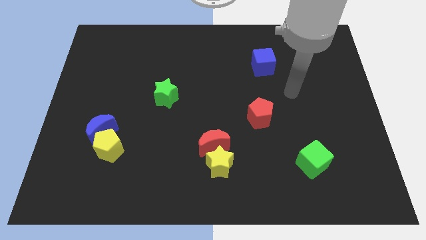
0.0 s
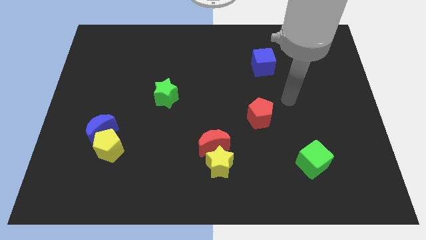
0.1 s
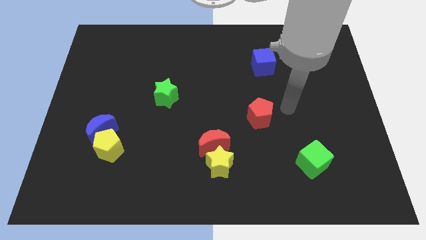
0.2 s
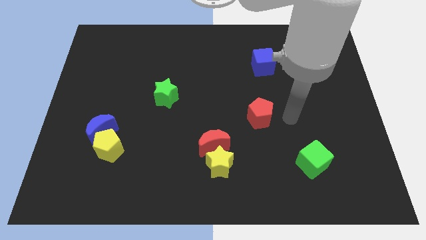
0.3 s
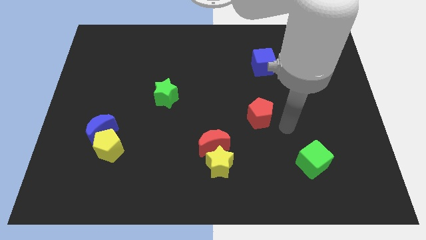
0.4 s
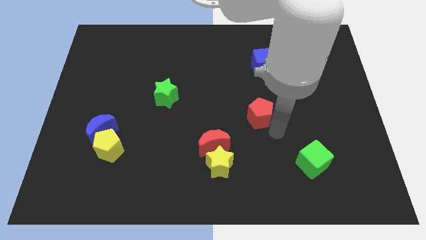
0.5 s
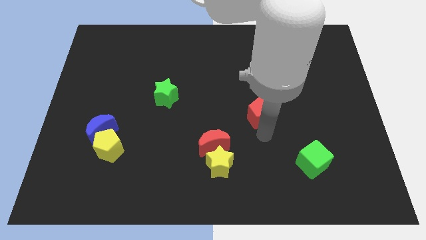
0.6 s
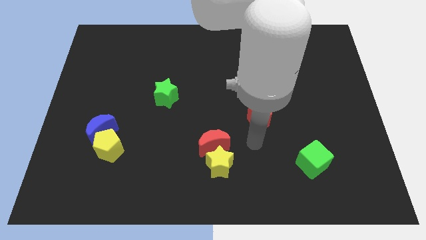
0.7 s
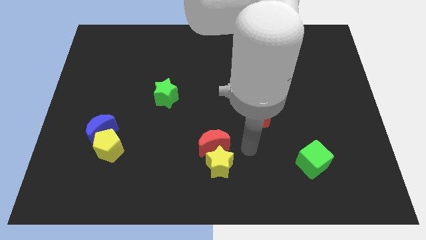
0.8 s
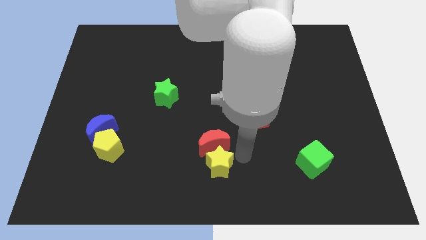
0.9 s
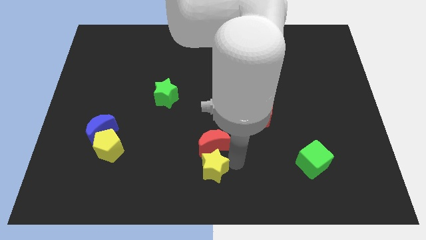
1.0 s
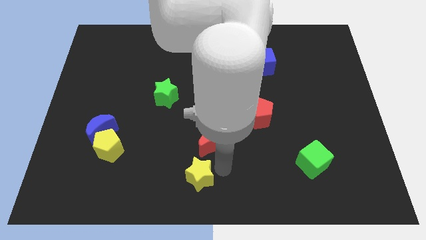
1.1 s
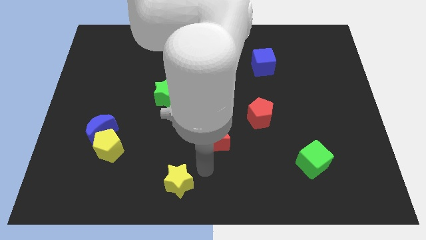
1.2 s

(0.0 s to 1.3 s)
pull the red moon apart from the yellow star

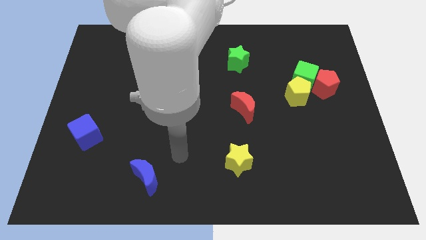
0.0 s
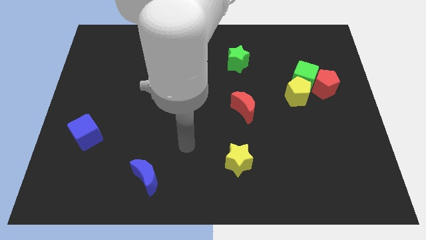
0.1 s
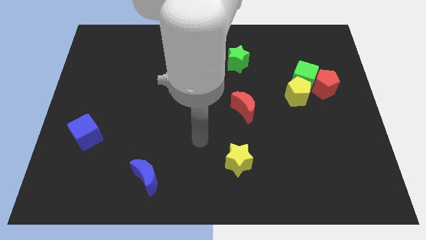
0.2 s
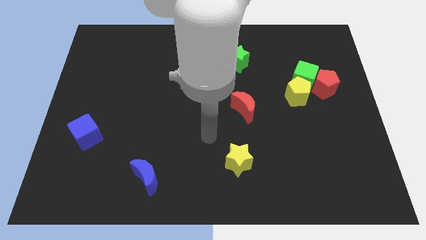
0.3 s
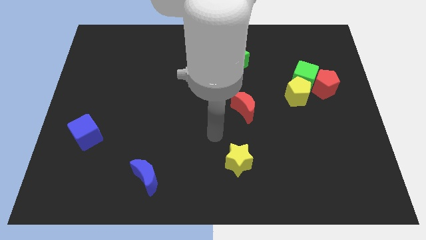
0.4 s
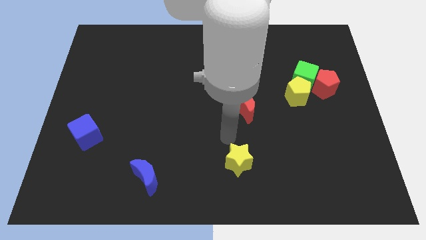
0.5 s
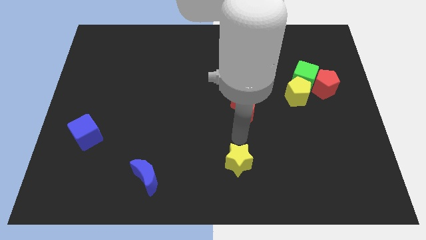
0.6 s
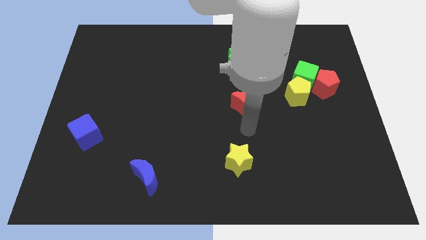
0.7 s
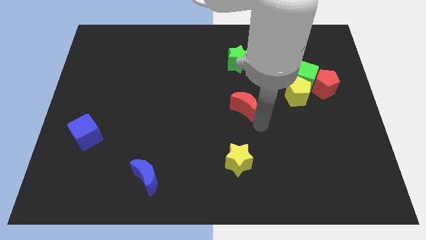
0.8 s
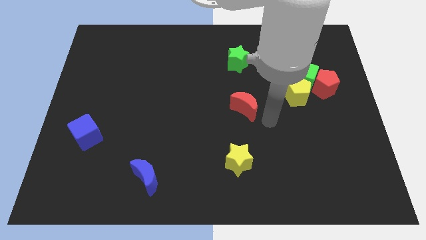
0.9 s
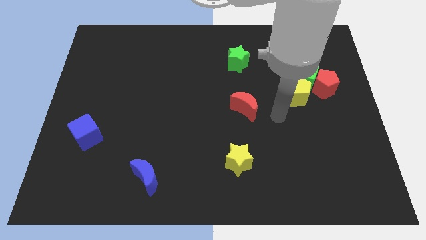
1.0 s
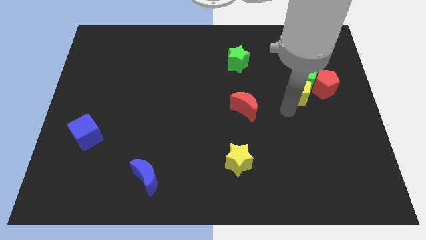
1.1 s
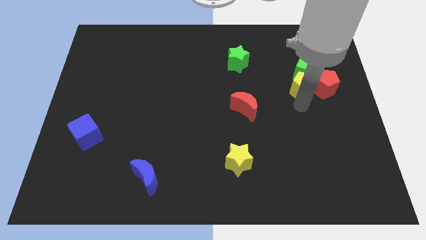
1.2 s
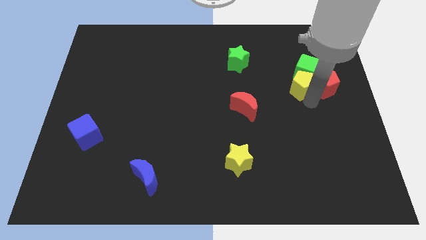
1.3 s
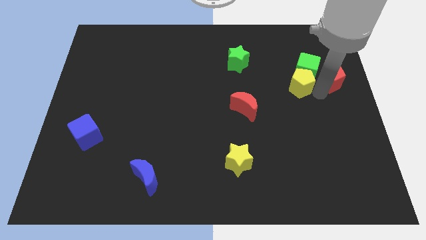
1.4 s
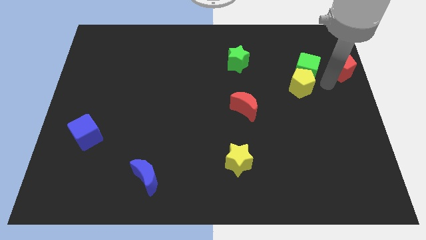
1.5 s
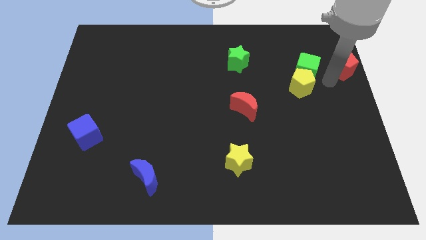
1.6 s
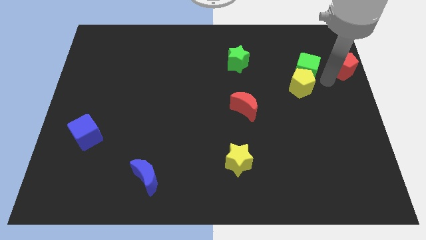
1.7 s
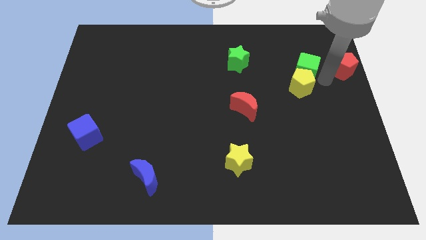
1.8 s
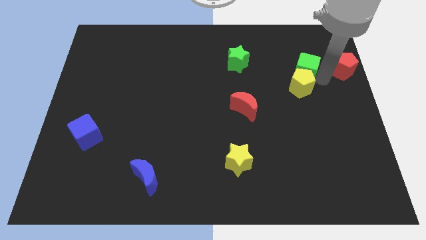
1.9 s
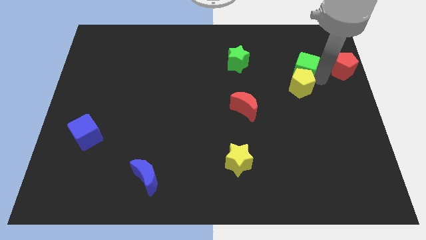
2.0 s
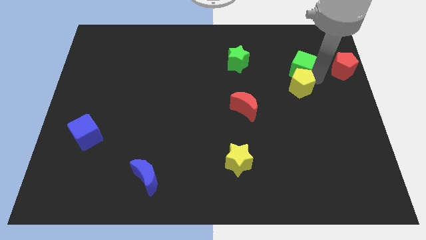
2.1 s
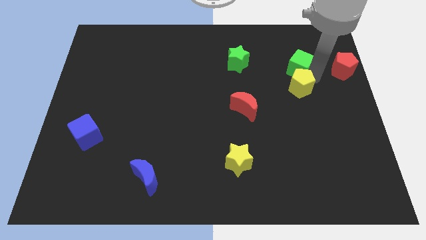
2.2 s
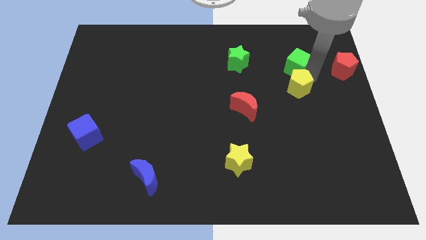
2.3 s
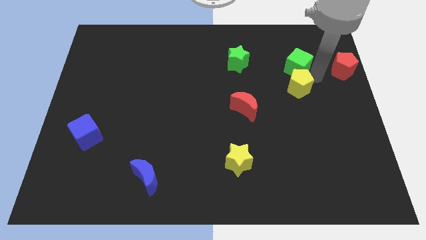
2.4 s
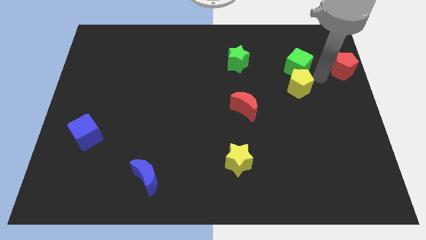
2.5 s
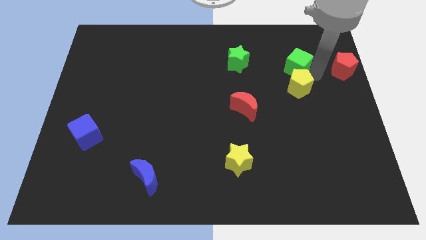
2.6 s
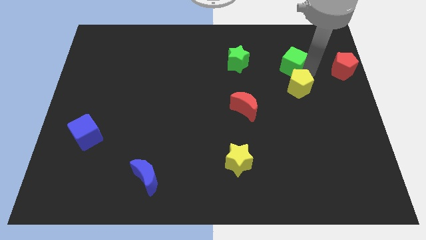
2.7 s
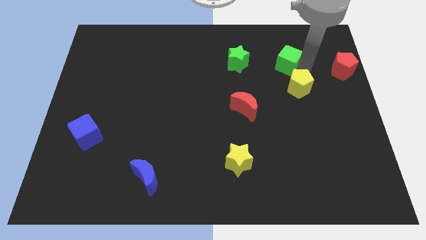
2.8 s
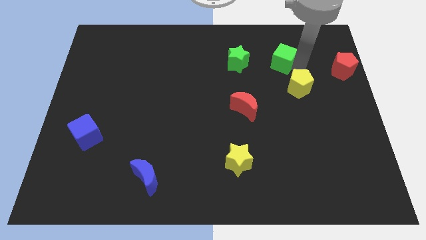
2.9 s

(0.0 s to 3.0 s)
move the green cube away from the red pentagon and yellow pentagon

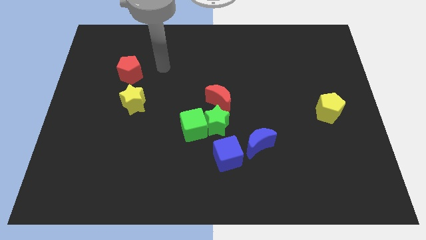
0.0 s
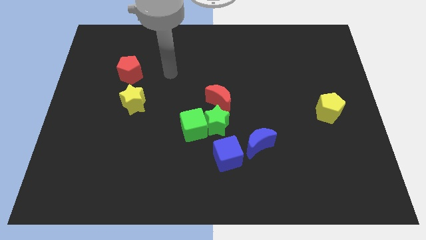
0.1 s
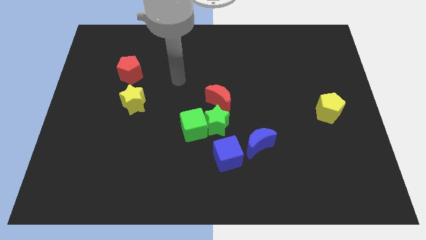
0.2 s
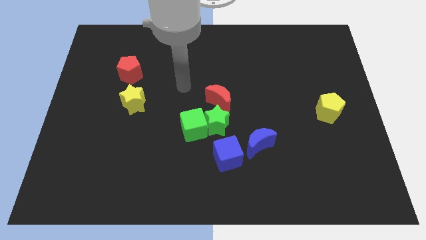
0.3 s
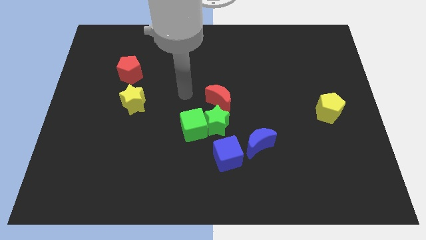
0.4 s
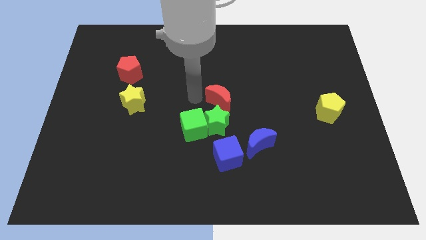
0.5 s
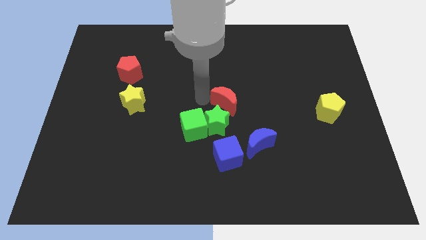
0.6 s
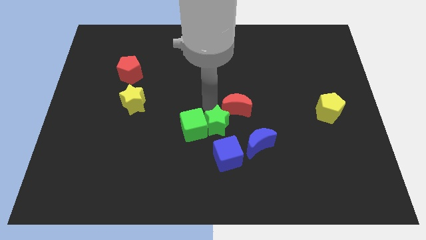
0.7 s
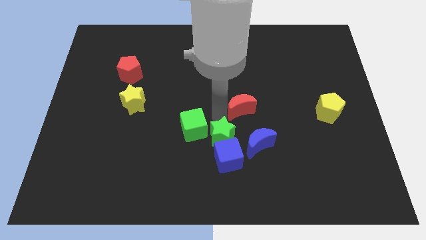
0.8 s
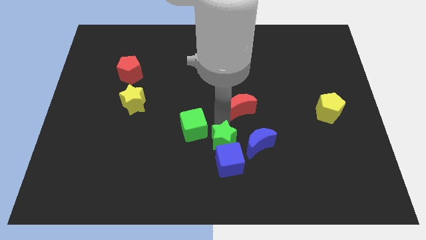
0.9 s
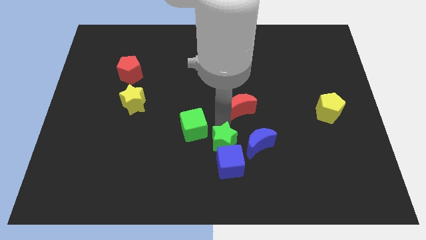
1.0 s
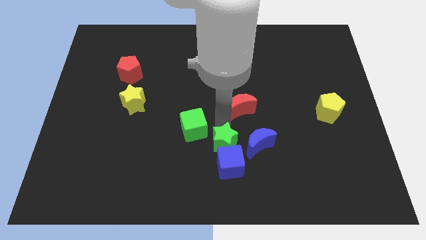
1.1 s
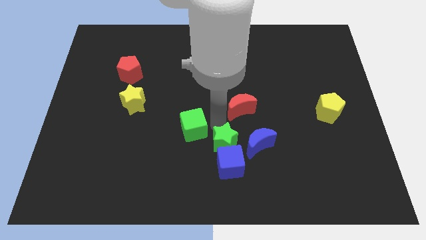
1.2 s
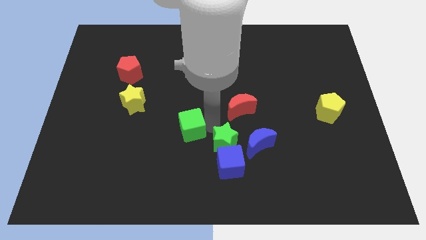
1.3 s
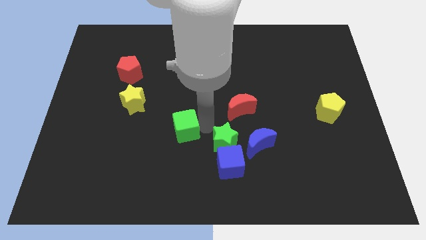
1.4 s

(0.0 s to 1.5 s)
separate the green cube from the green star and red moon

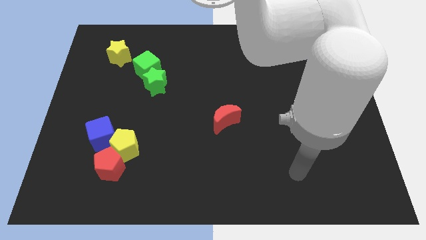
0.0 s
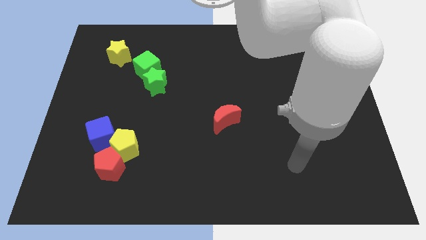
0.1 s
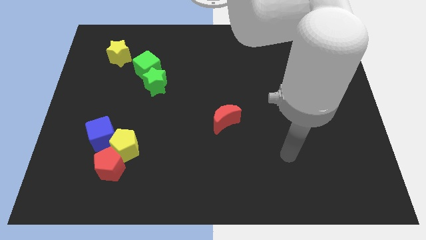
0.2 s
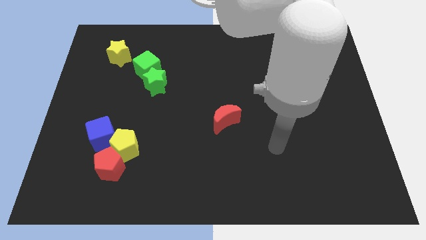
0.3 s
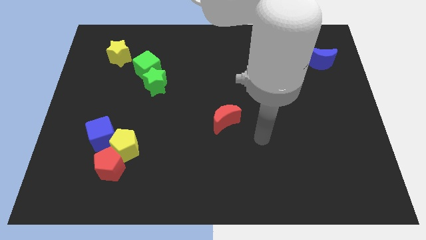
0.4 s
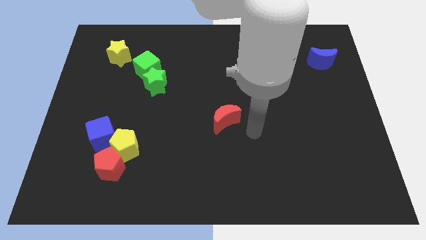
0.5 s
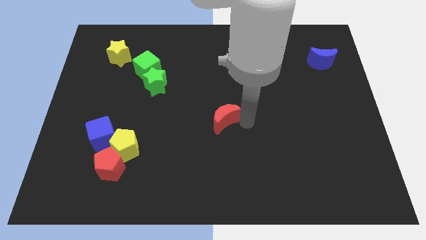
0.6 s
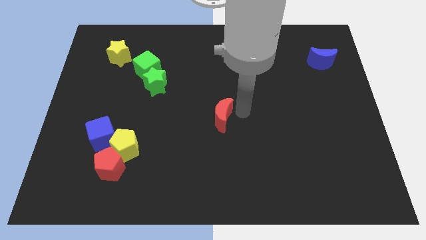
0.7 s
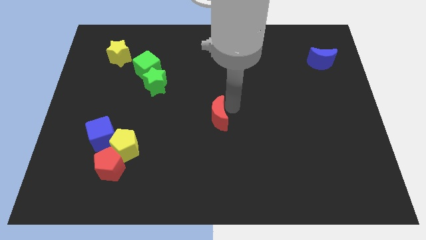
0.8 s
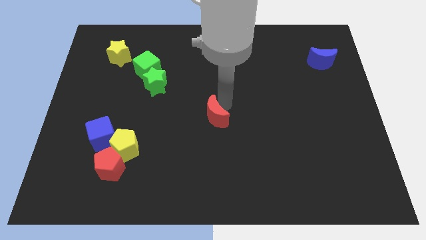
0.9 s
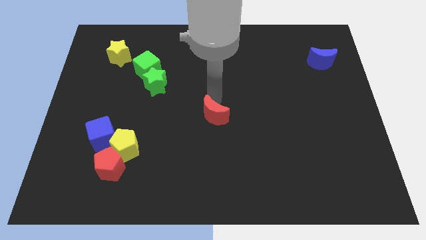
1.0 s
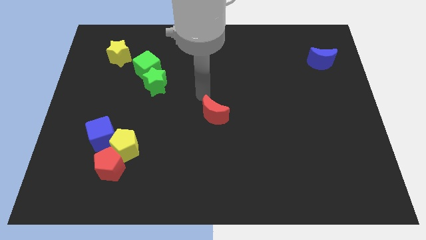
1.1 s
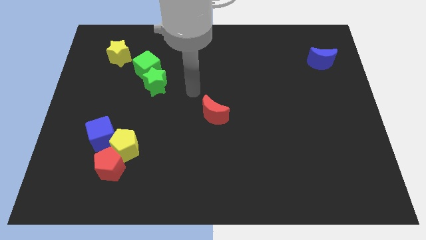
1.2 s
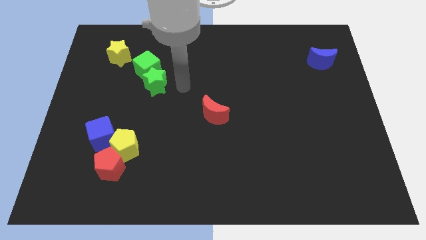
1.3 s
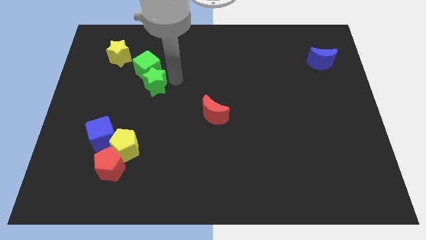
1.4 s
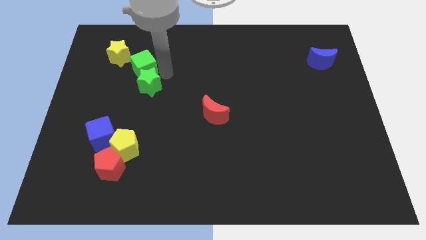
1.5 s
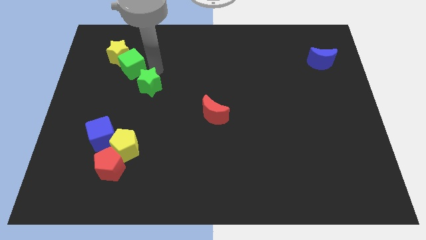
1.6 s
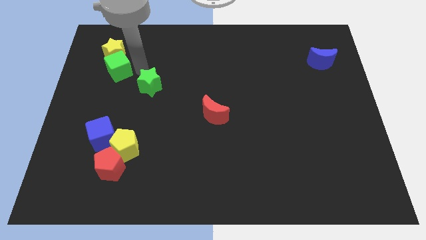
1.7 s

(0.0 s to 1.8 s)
separate the green star from the green cube

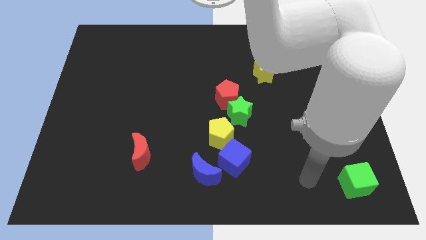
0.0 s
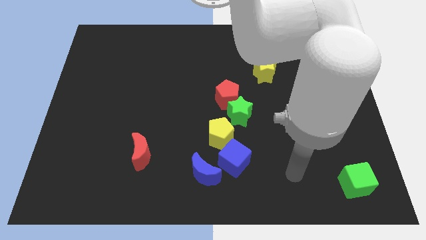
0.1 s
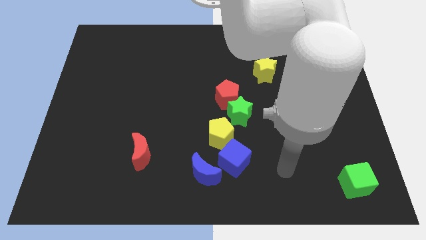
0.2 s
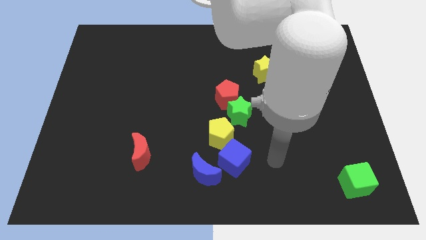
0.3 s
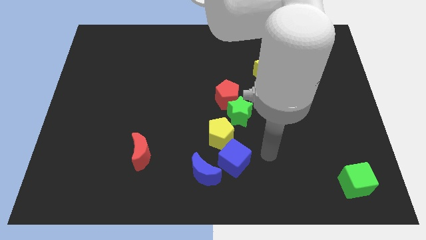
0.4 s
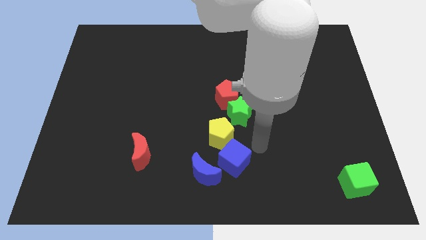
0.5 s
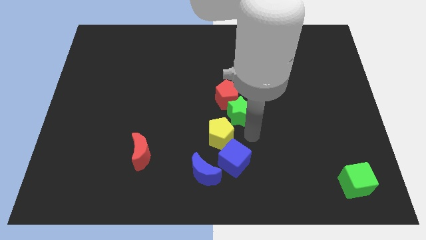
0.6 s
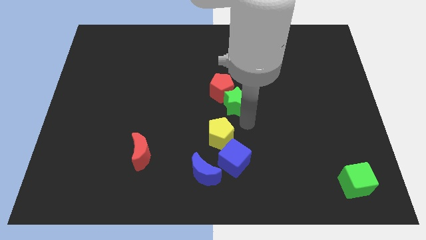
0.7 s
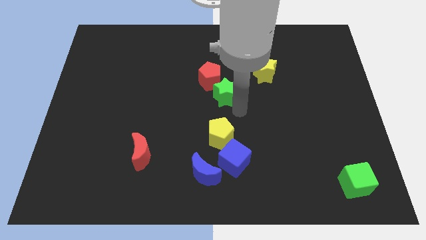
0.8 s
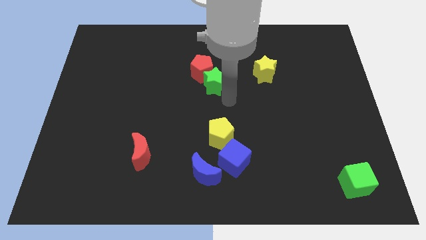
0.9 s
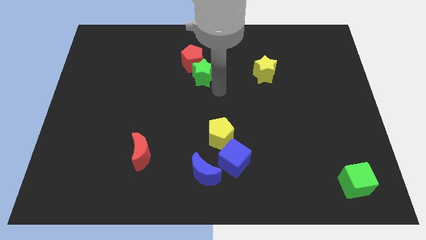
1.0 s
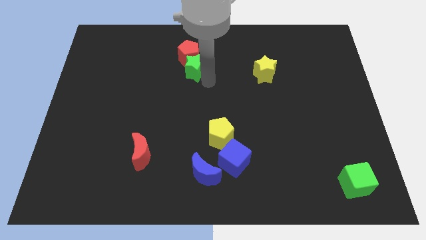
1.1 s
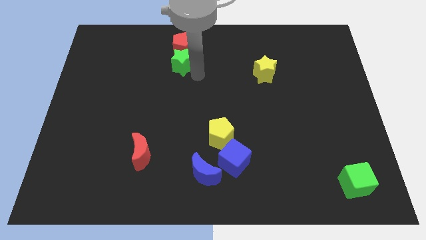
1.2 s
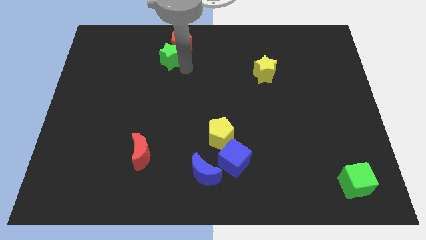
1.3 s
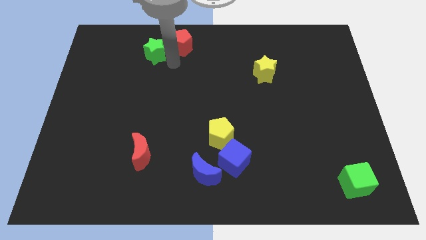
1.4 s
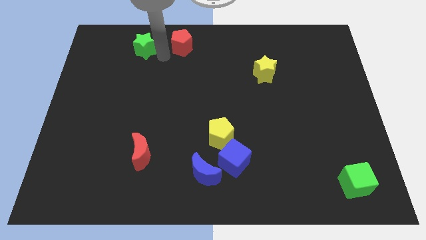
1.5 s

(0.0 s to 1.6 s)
move the red pentagon away from the green star
